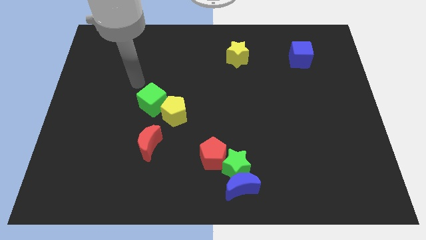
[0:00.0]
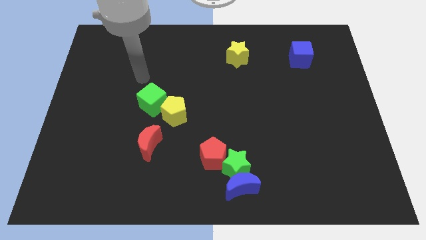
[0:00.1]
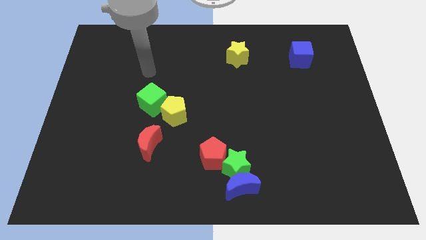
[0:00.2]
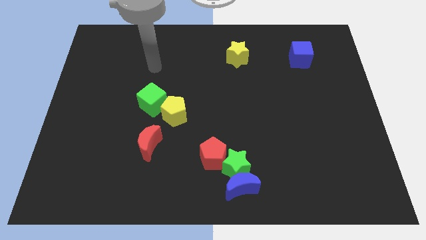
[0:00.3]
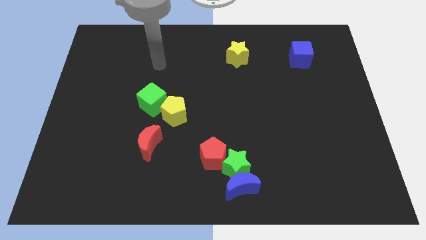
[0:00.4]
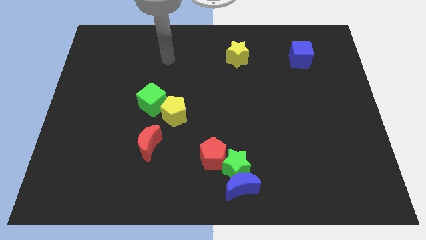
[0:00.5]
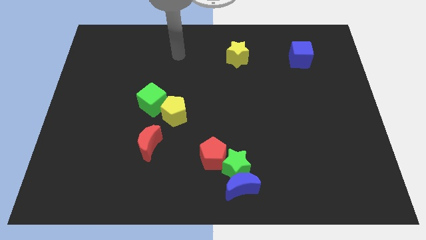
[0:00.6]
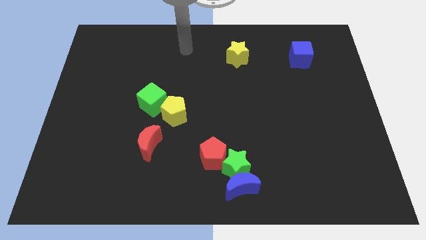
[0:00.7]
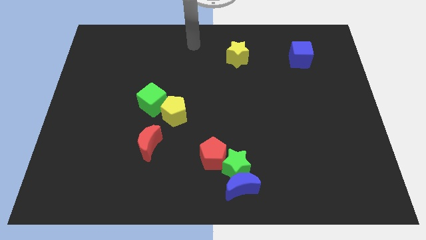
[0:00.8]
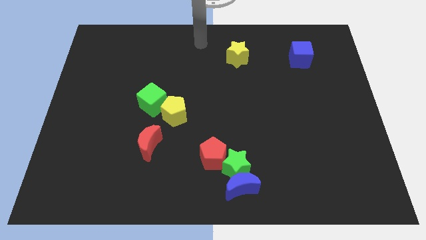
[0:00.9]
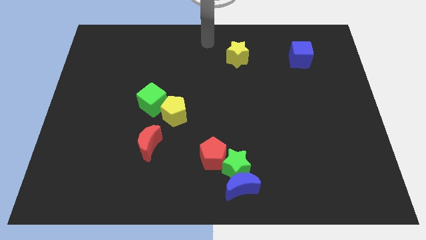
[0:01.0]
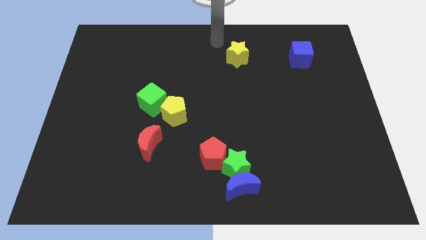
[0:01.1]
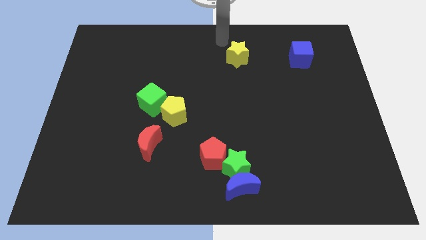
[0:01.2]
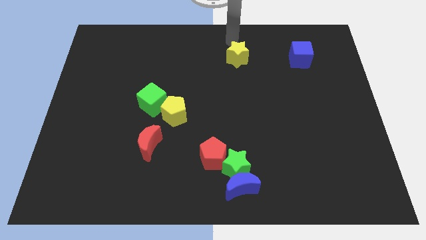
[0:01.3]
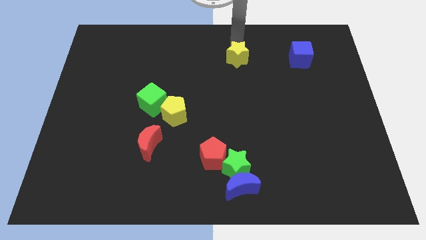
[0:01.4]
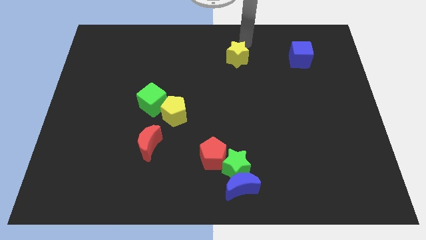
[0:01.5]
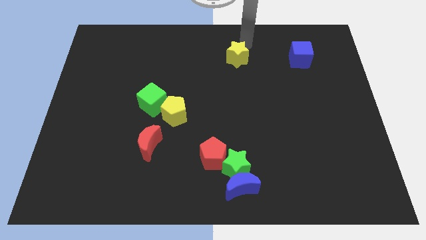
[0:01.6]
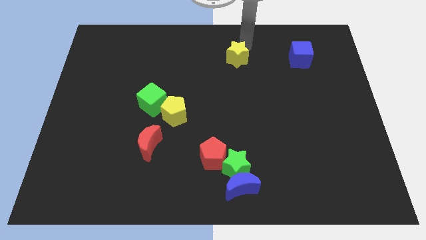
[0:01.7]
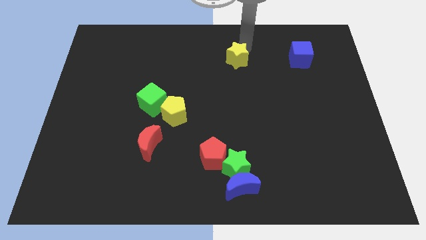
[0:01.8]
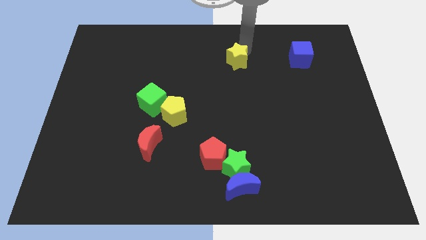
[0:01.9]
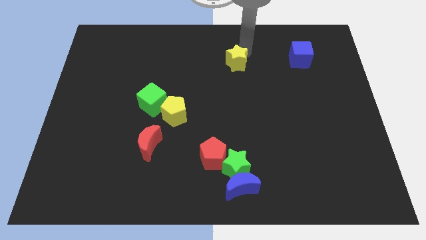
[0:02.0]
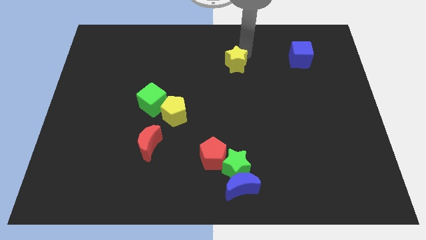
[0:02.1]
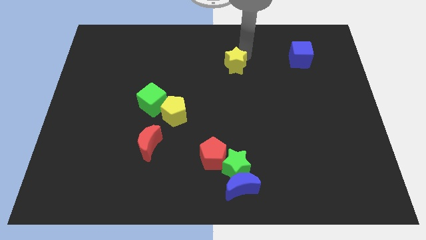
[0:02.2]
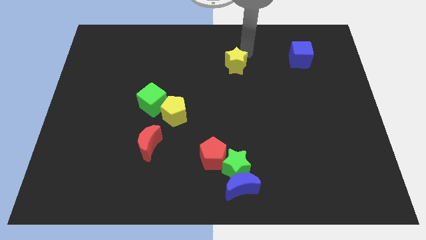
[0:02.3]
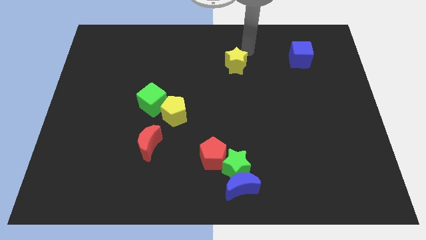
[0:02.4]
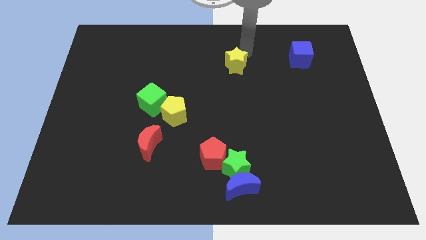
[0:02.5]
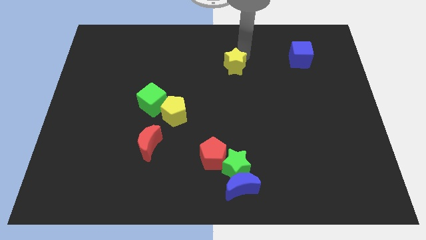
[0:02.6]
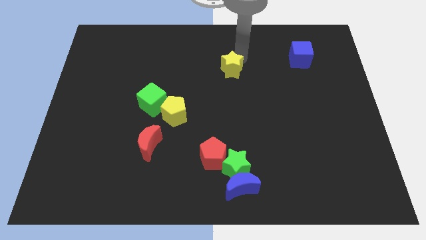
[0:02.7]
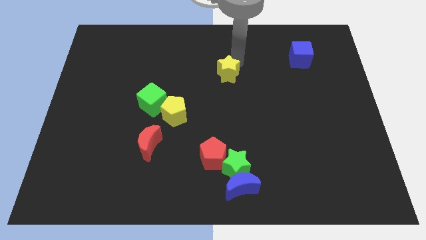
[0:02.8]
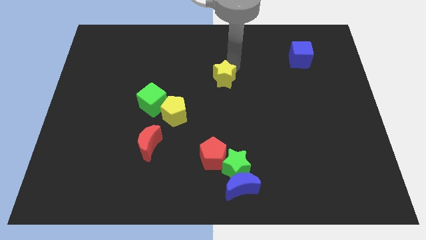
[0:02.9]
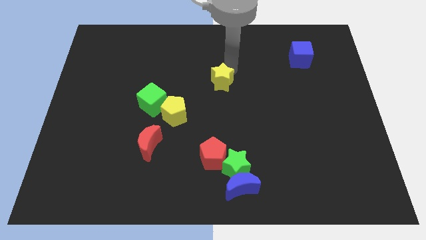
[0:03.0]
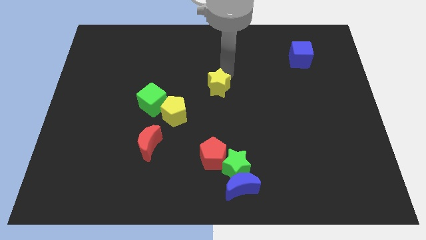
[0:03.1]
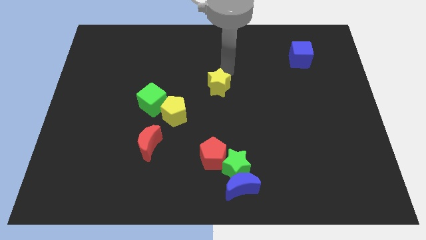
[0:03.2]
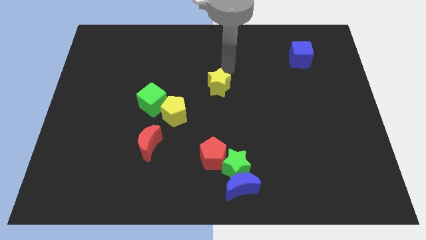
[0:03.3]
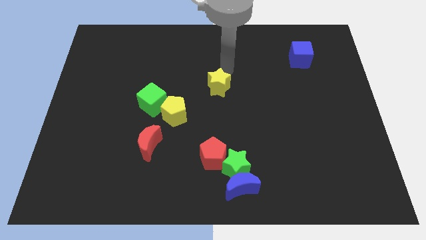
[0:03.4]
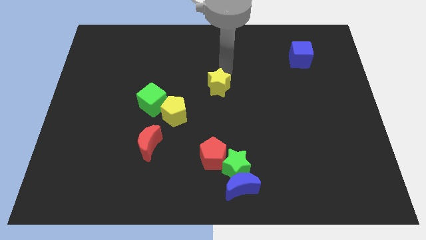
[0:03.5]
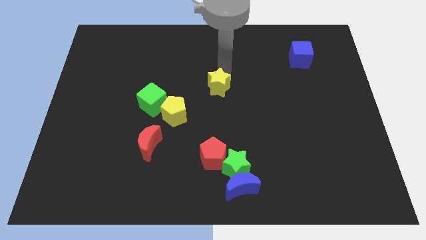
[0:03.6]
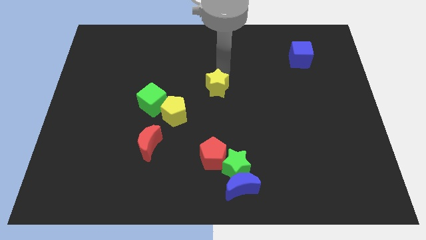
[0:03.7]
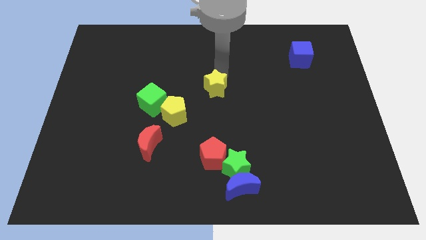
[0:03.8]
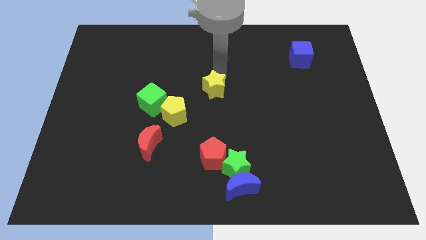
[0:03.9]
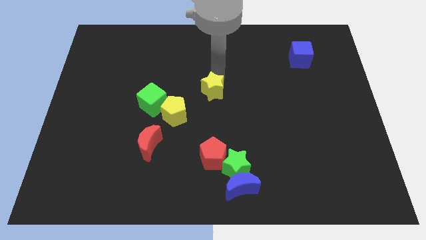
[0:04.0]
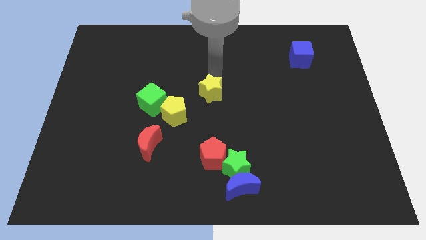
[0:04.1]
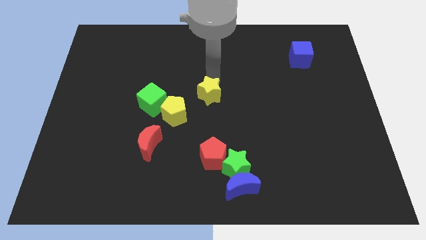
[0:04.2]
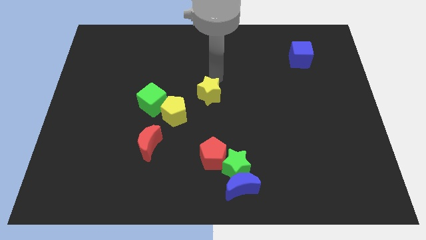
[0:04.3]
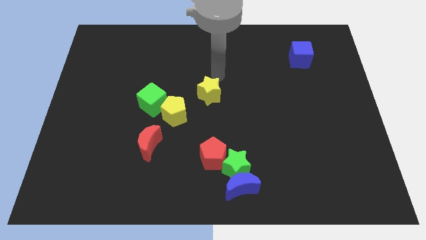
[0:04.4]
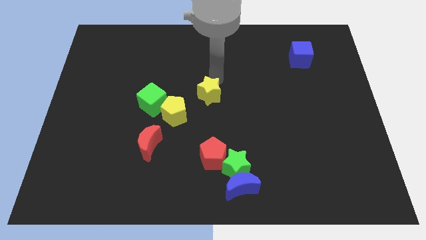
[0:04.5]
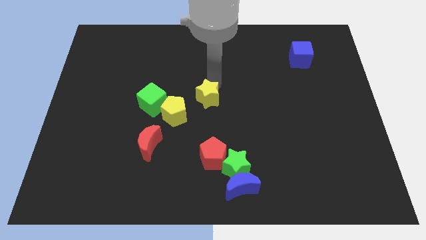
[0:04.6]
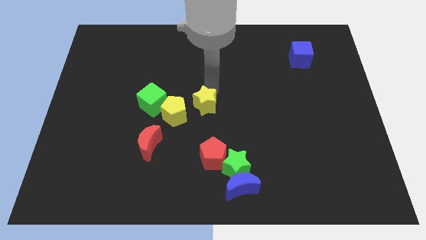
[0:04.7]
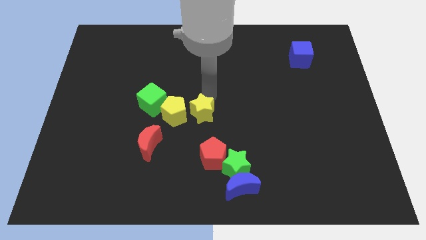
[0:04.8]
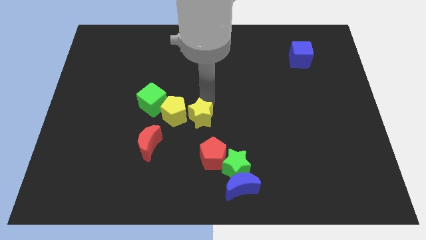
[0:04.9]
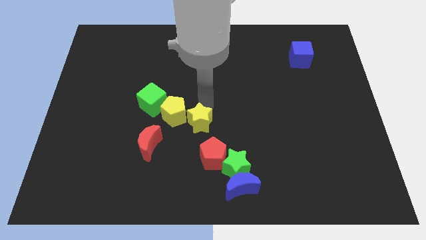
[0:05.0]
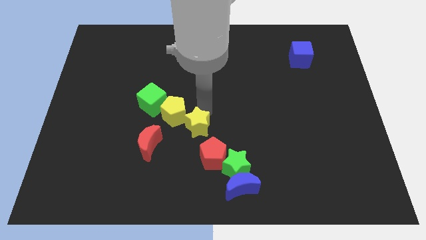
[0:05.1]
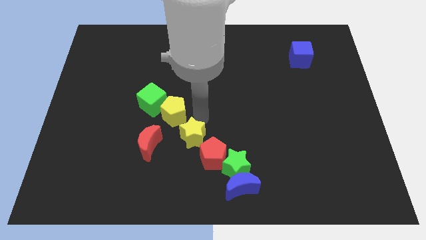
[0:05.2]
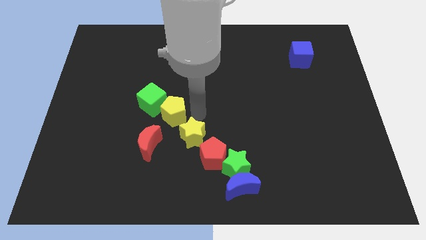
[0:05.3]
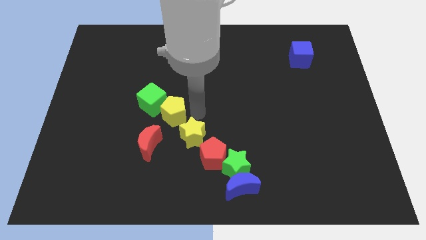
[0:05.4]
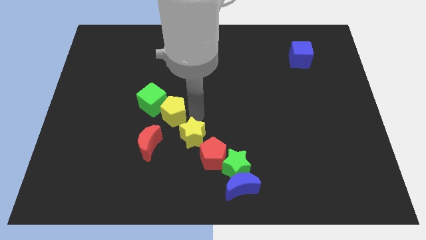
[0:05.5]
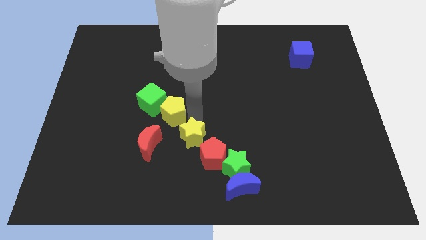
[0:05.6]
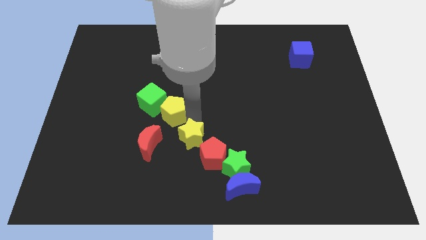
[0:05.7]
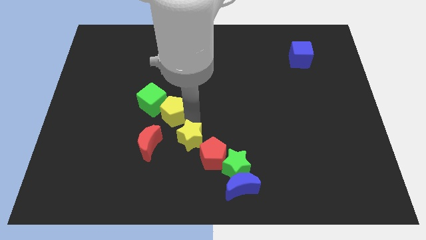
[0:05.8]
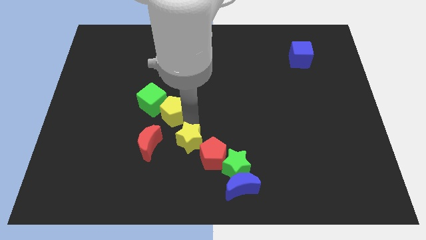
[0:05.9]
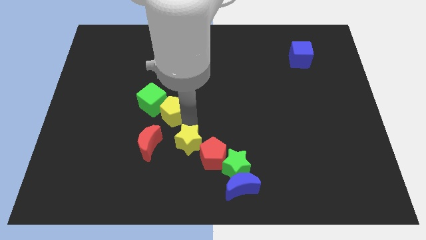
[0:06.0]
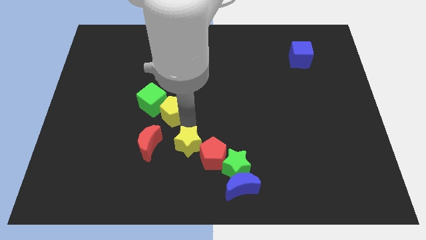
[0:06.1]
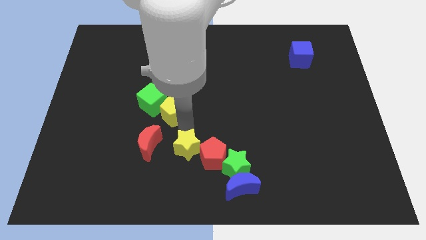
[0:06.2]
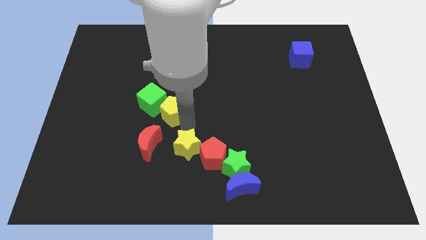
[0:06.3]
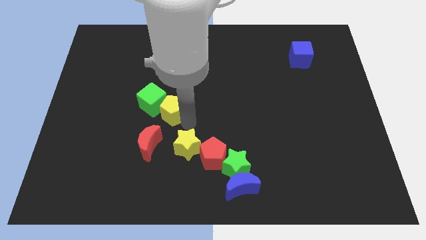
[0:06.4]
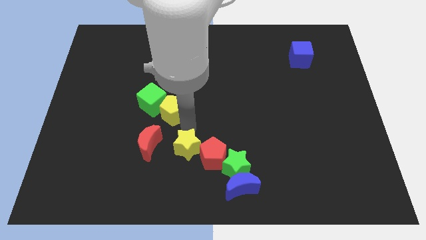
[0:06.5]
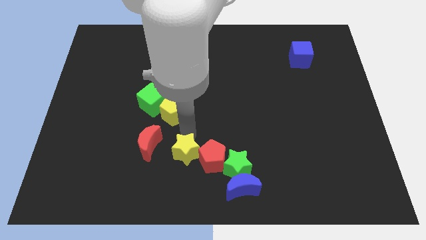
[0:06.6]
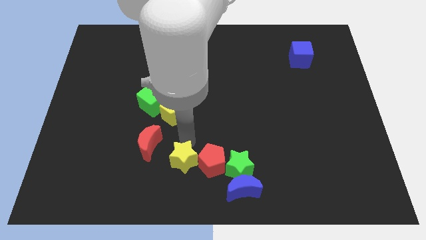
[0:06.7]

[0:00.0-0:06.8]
slide the yellow star to the bottom left side of the red pentagon

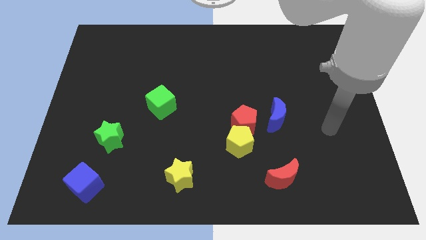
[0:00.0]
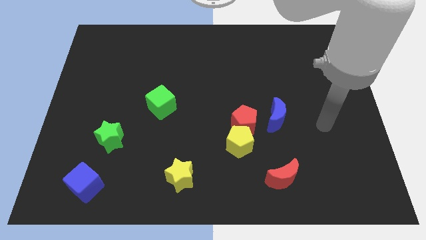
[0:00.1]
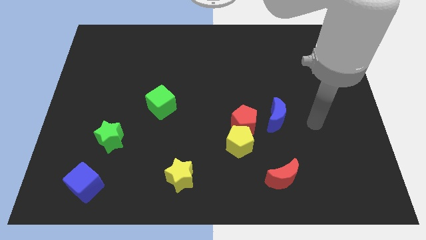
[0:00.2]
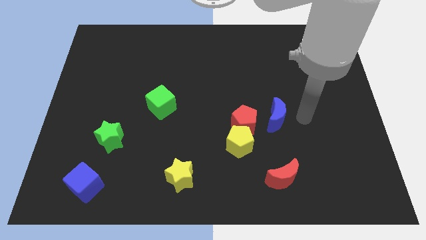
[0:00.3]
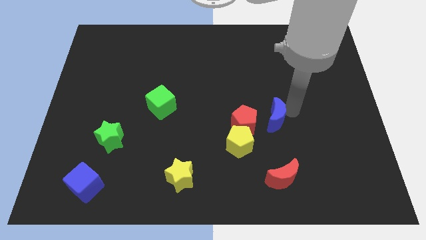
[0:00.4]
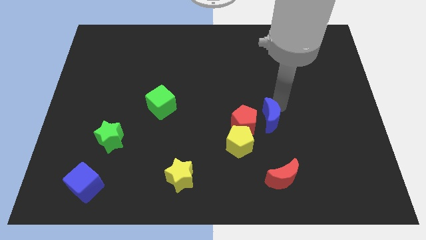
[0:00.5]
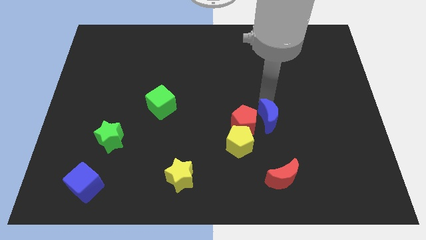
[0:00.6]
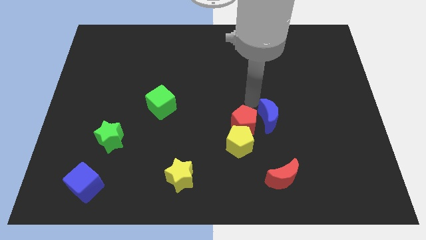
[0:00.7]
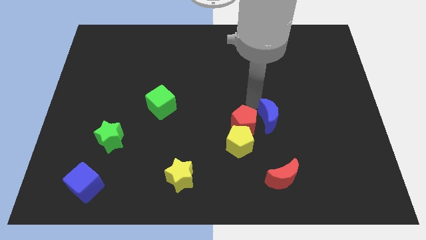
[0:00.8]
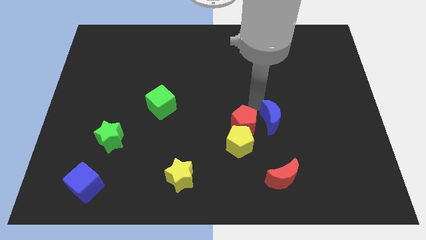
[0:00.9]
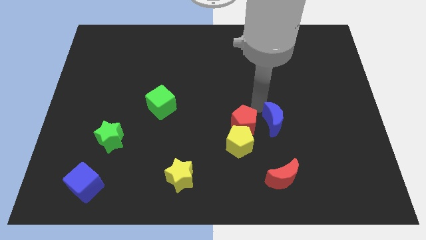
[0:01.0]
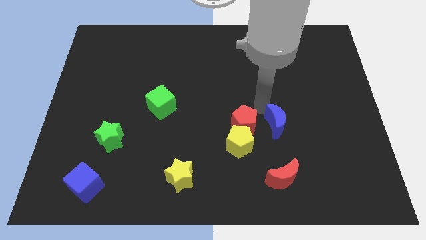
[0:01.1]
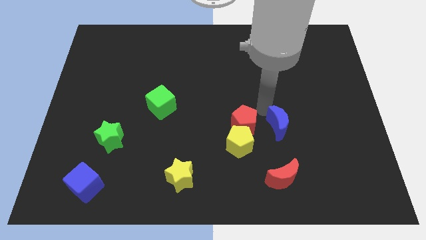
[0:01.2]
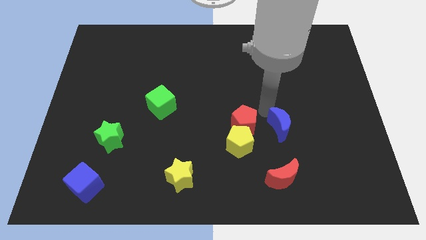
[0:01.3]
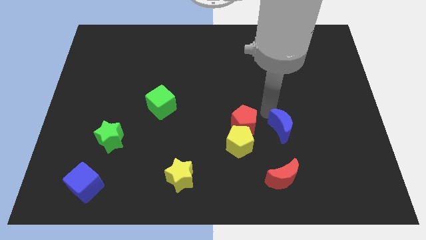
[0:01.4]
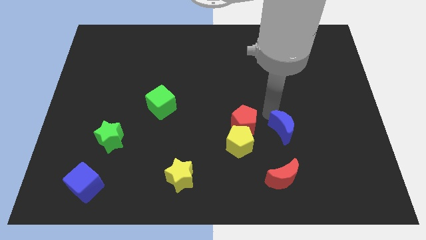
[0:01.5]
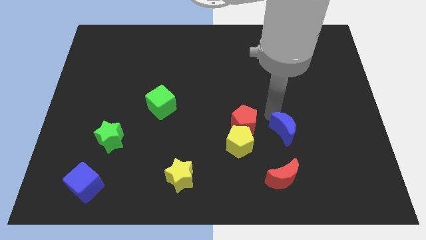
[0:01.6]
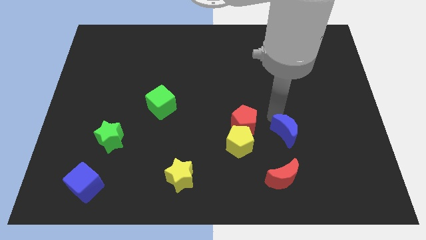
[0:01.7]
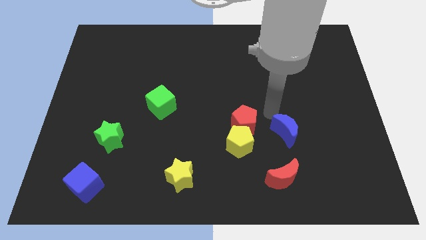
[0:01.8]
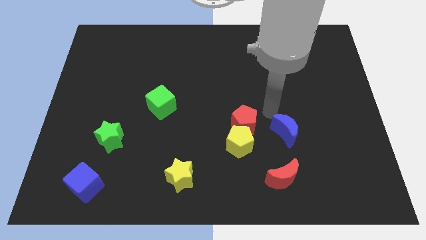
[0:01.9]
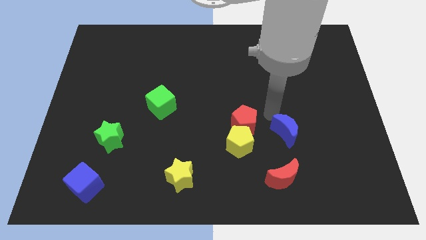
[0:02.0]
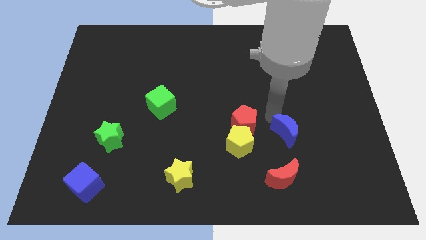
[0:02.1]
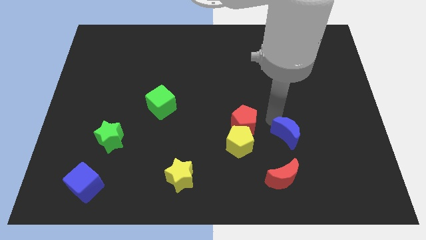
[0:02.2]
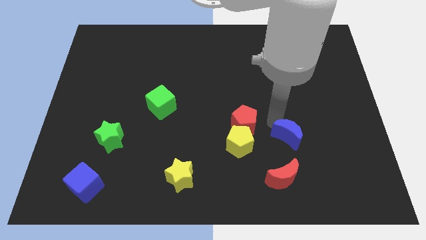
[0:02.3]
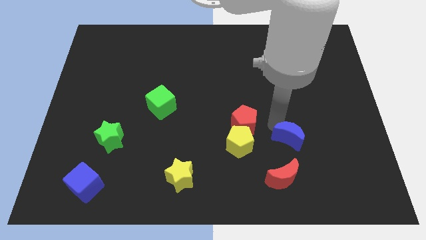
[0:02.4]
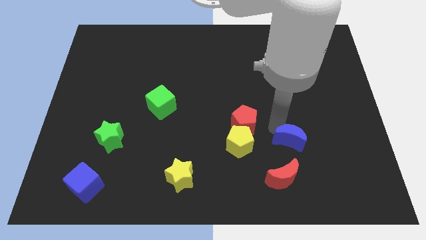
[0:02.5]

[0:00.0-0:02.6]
push the blue moon to the top right side of the red moon
